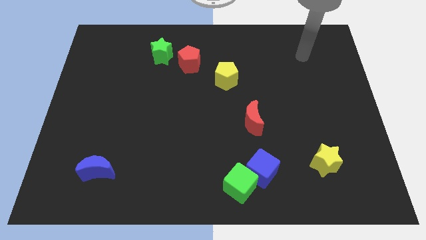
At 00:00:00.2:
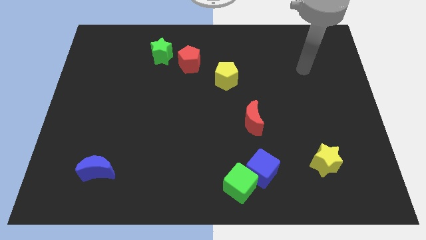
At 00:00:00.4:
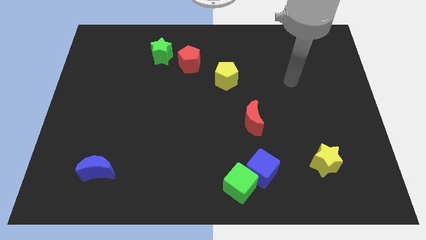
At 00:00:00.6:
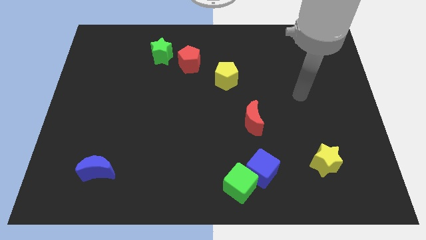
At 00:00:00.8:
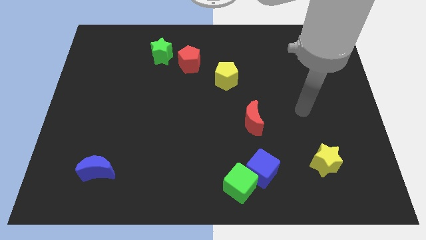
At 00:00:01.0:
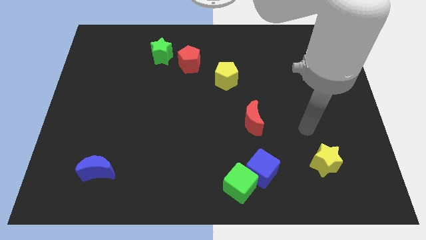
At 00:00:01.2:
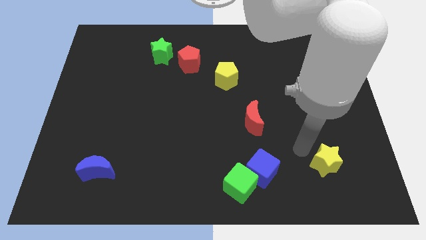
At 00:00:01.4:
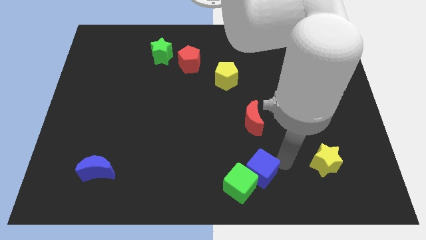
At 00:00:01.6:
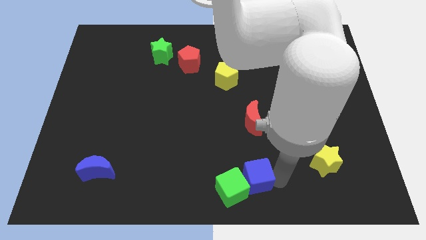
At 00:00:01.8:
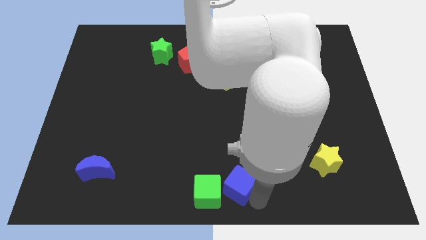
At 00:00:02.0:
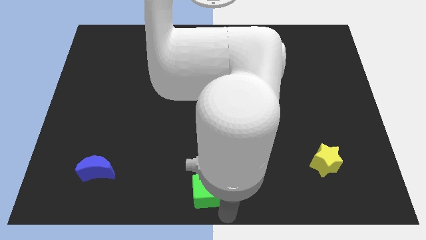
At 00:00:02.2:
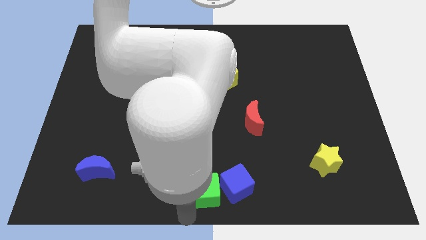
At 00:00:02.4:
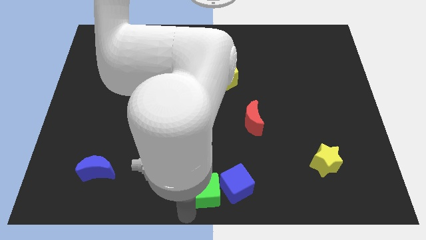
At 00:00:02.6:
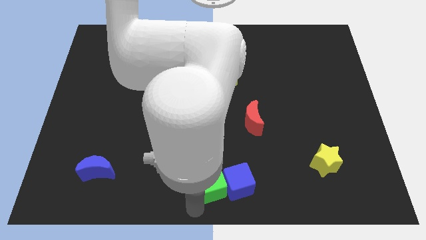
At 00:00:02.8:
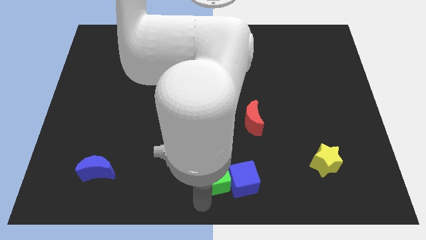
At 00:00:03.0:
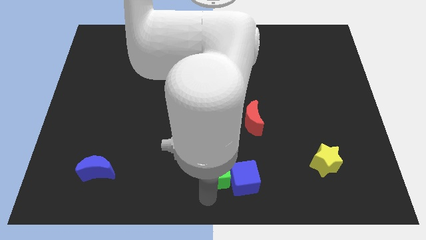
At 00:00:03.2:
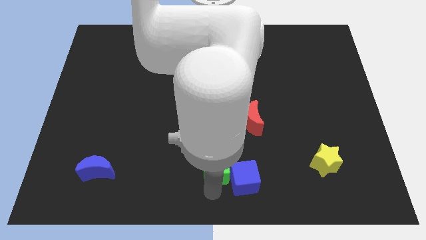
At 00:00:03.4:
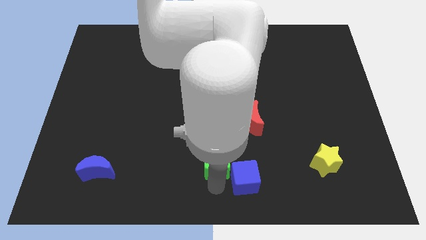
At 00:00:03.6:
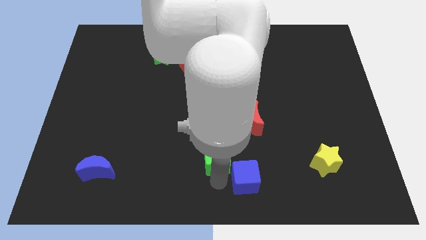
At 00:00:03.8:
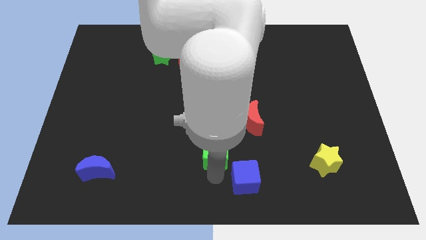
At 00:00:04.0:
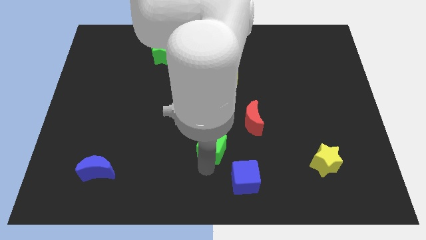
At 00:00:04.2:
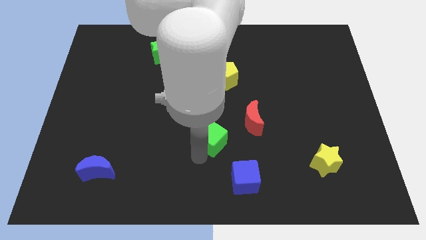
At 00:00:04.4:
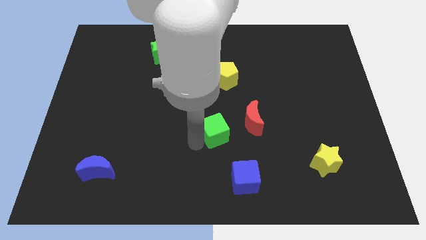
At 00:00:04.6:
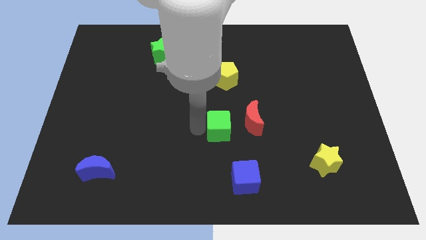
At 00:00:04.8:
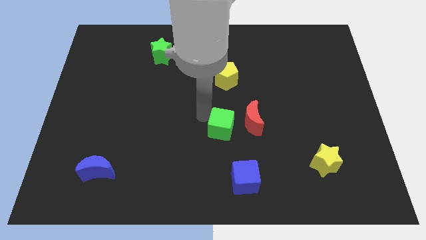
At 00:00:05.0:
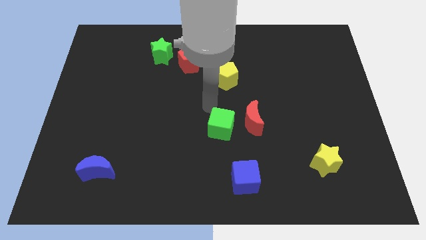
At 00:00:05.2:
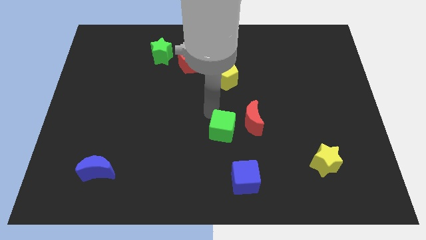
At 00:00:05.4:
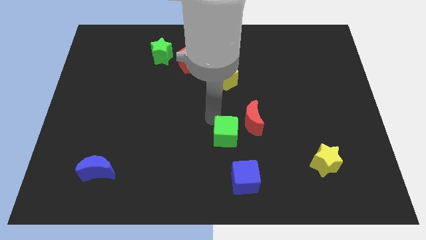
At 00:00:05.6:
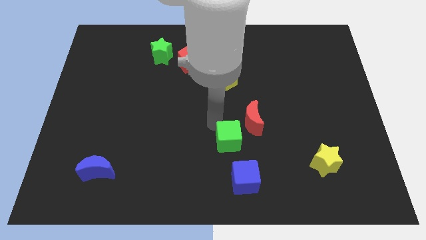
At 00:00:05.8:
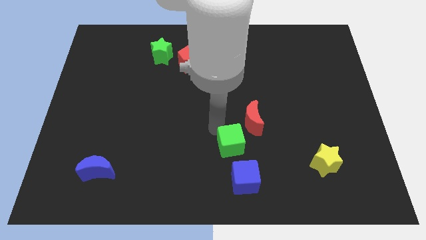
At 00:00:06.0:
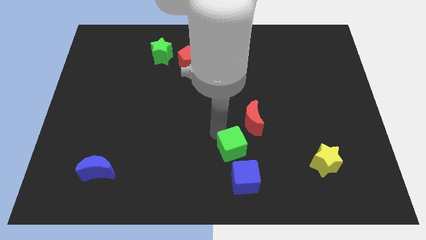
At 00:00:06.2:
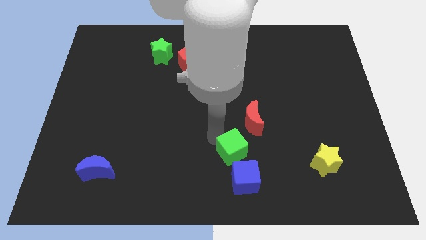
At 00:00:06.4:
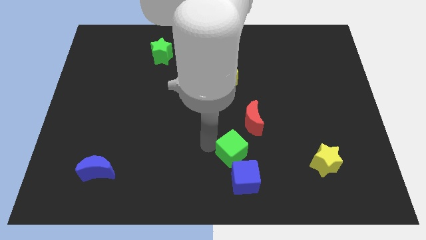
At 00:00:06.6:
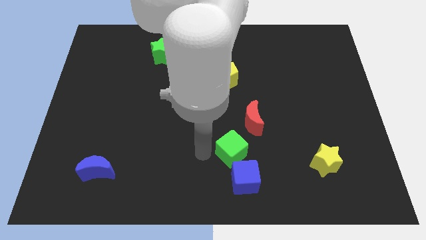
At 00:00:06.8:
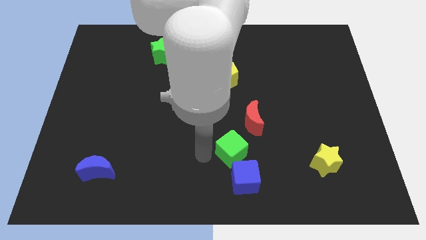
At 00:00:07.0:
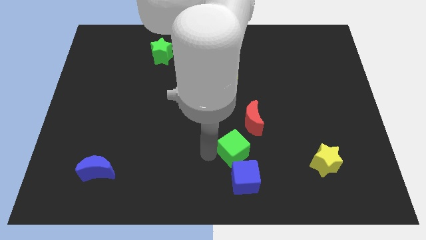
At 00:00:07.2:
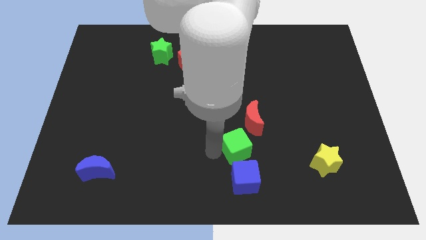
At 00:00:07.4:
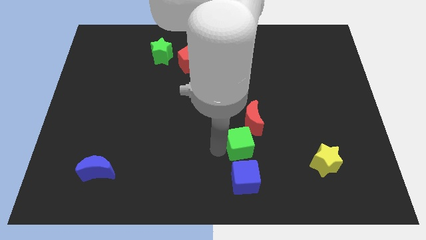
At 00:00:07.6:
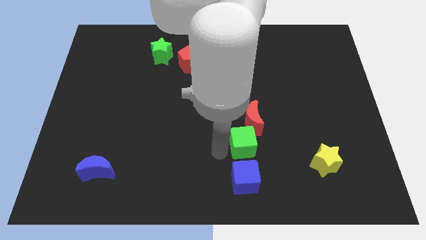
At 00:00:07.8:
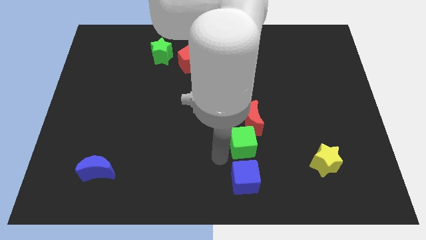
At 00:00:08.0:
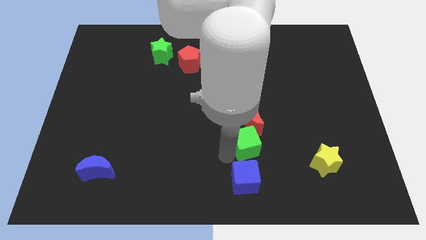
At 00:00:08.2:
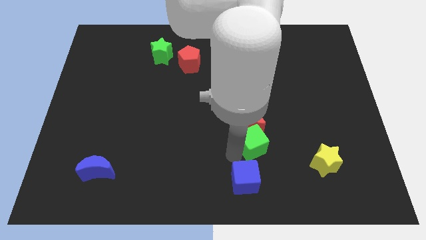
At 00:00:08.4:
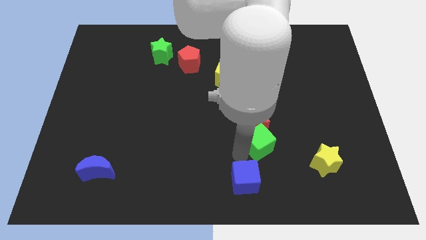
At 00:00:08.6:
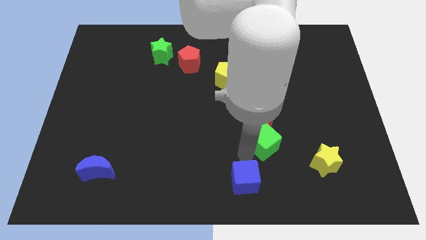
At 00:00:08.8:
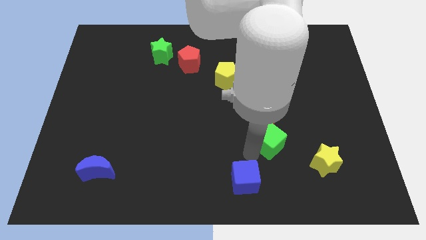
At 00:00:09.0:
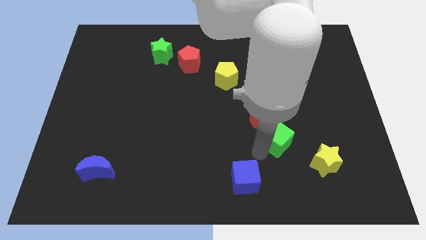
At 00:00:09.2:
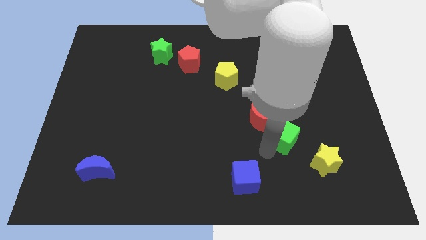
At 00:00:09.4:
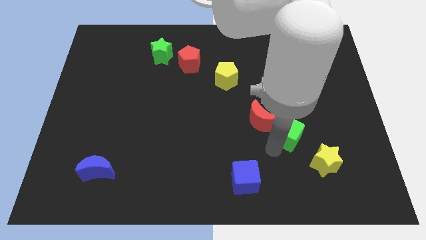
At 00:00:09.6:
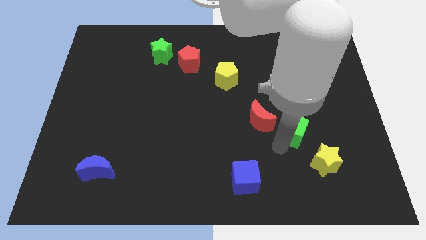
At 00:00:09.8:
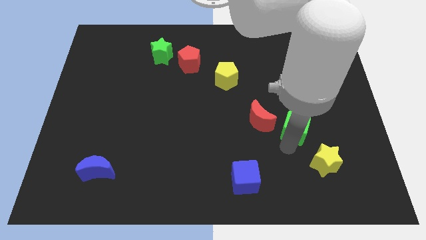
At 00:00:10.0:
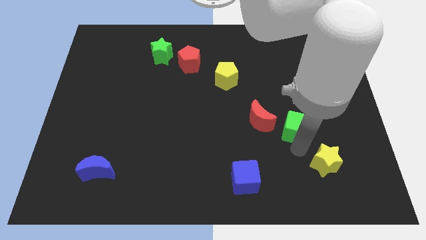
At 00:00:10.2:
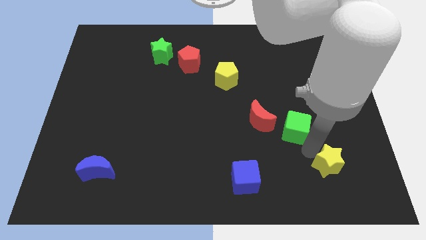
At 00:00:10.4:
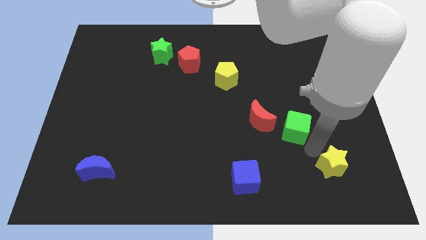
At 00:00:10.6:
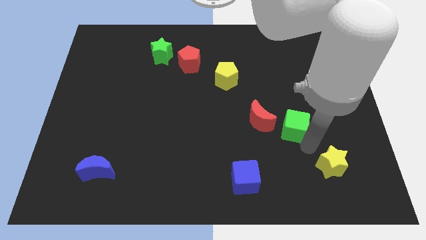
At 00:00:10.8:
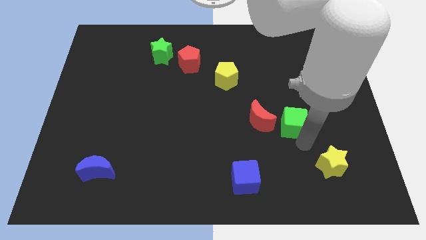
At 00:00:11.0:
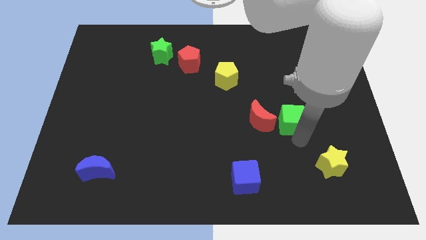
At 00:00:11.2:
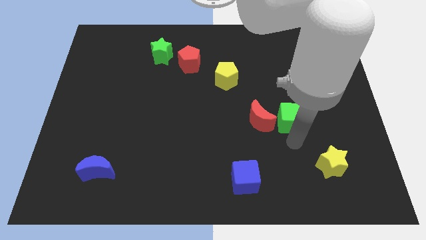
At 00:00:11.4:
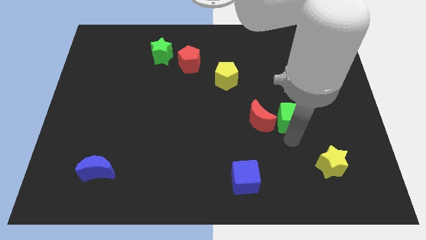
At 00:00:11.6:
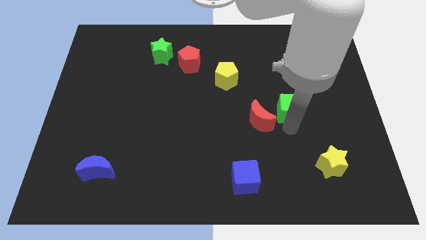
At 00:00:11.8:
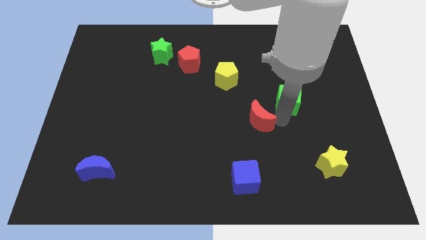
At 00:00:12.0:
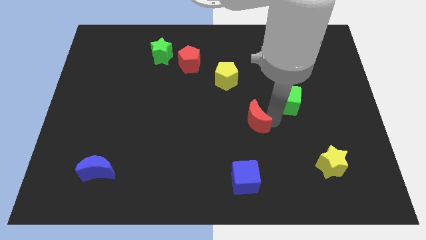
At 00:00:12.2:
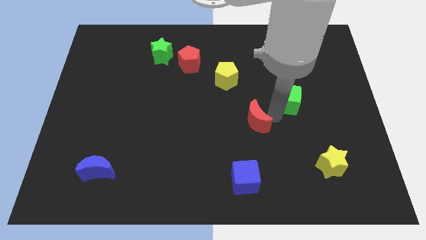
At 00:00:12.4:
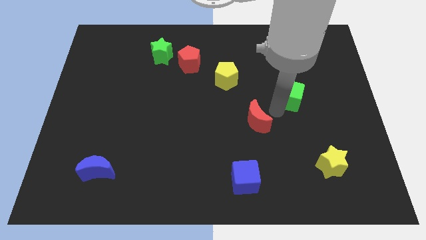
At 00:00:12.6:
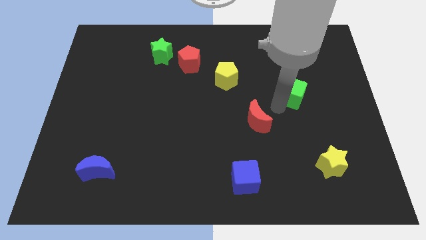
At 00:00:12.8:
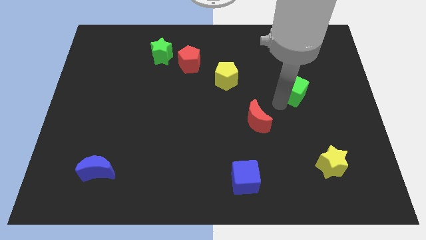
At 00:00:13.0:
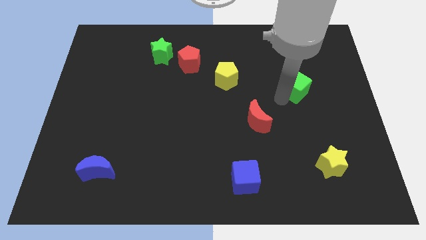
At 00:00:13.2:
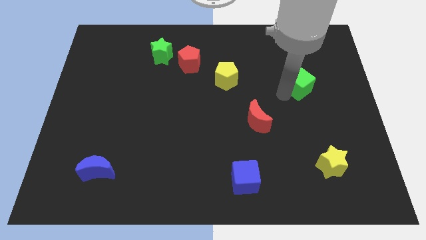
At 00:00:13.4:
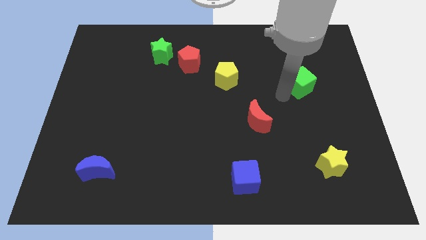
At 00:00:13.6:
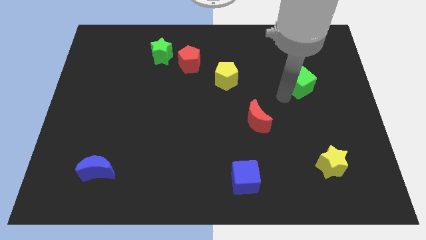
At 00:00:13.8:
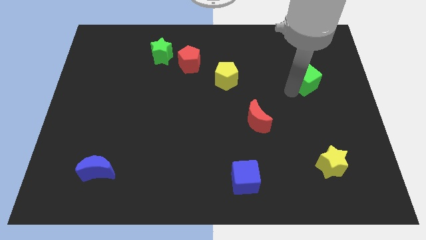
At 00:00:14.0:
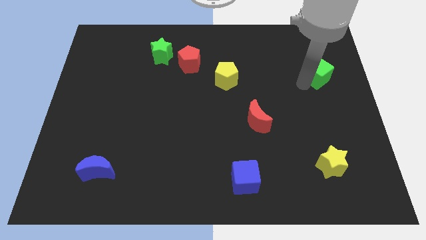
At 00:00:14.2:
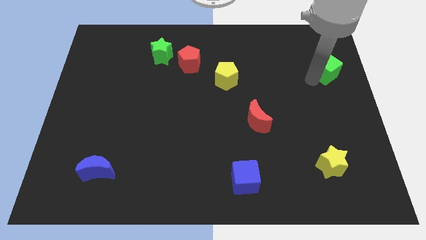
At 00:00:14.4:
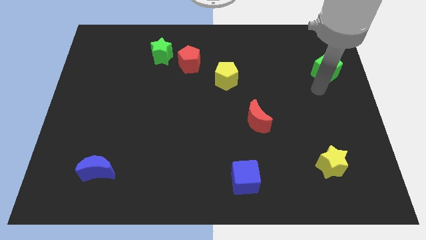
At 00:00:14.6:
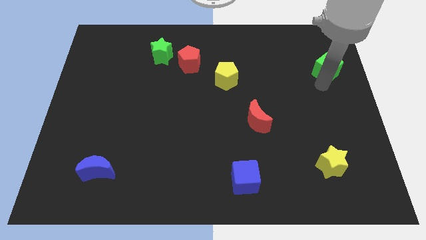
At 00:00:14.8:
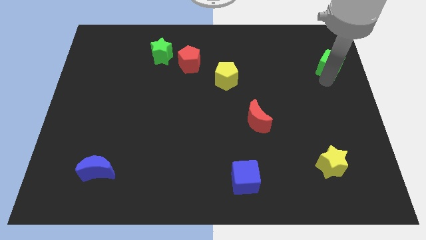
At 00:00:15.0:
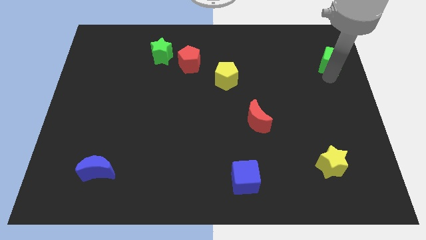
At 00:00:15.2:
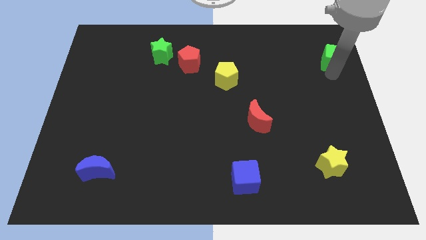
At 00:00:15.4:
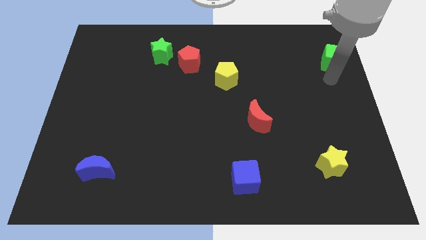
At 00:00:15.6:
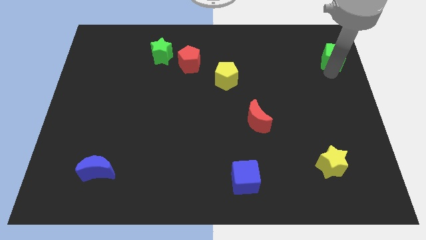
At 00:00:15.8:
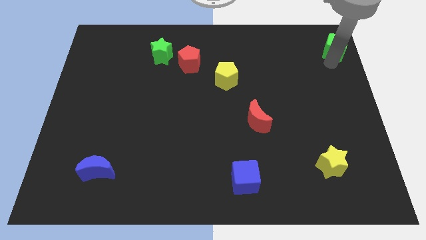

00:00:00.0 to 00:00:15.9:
put the green cube to the top right corner
